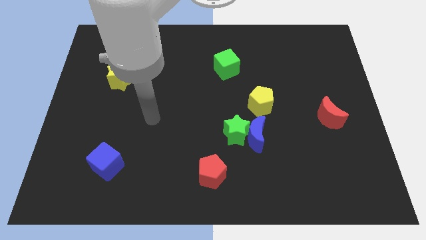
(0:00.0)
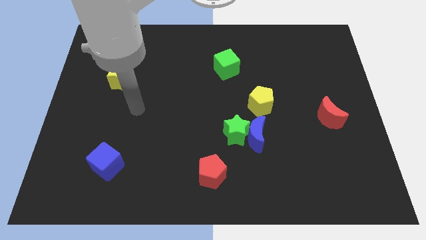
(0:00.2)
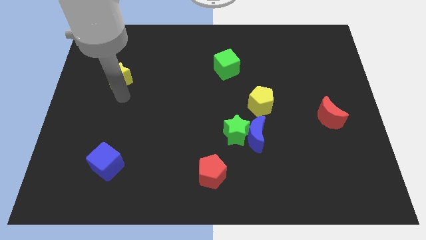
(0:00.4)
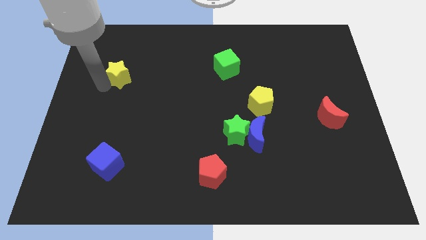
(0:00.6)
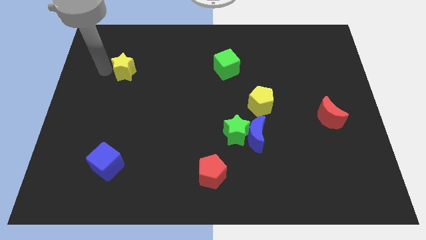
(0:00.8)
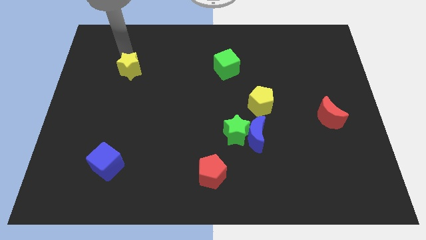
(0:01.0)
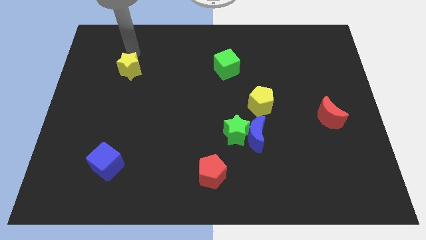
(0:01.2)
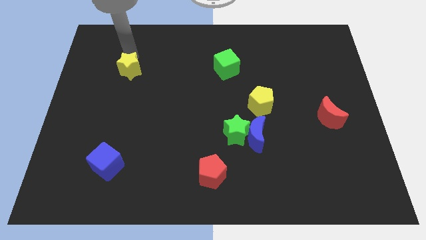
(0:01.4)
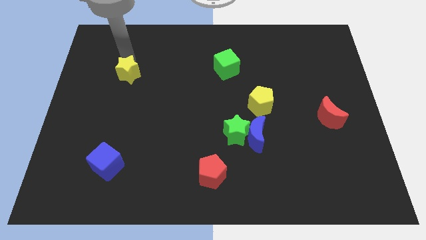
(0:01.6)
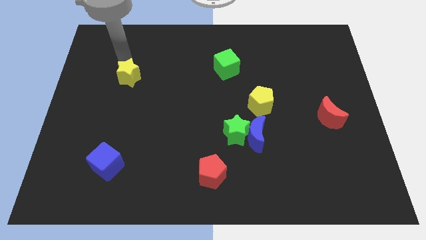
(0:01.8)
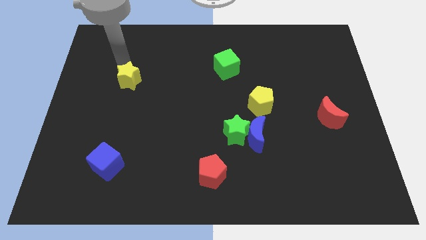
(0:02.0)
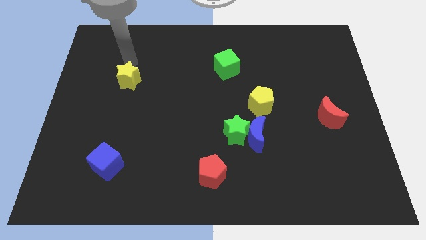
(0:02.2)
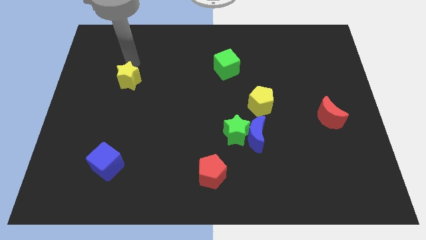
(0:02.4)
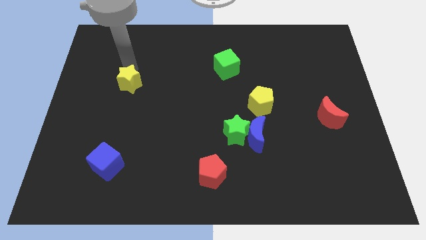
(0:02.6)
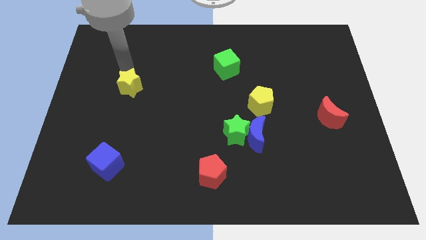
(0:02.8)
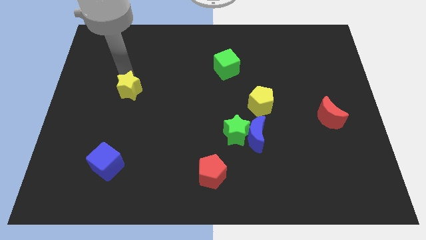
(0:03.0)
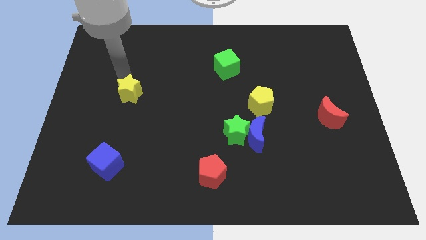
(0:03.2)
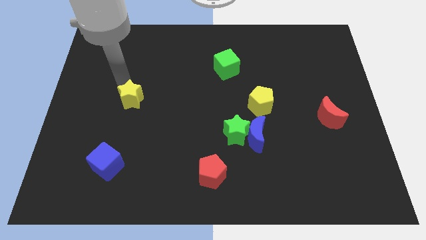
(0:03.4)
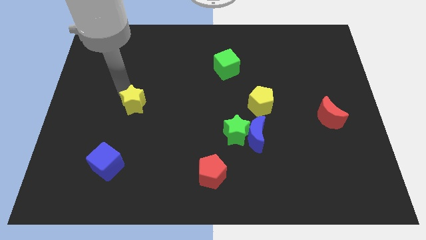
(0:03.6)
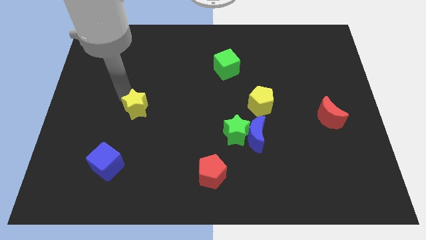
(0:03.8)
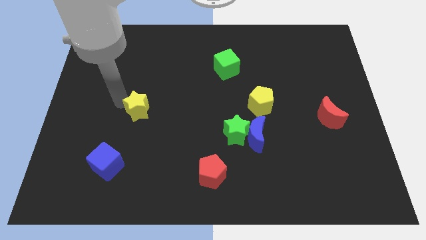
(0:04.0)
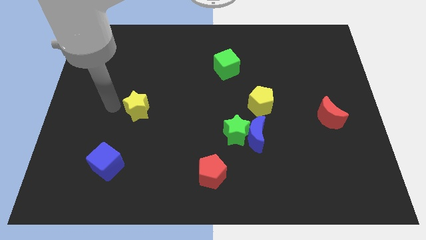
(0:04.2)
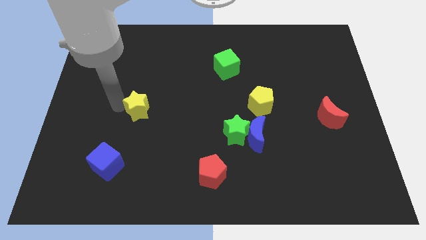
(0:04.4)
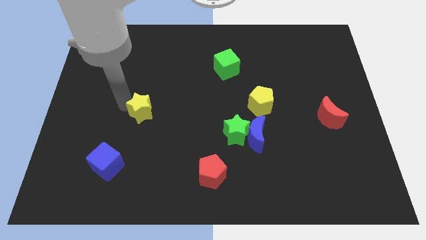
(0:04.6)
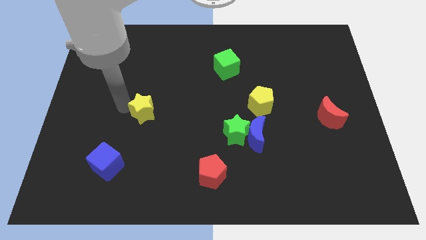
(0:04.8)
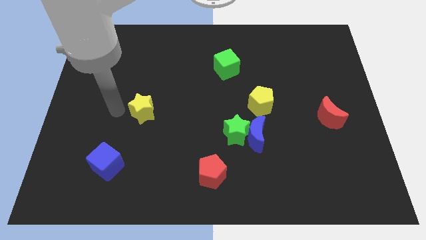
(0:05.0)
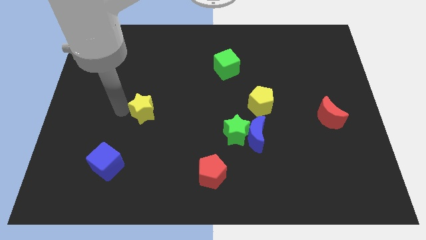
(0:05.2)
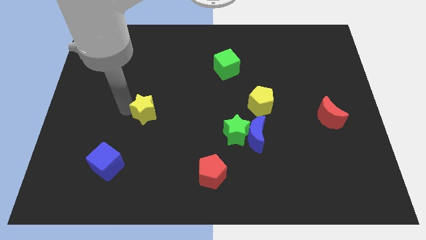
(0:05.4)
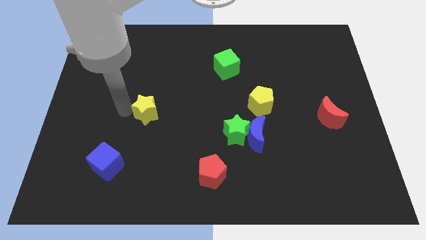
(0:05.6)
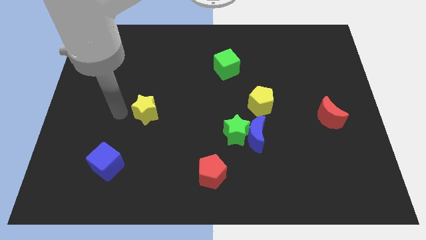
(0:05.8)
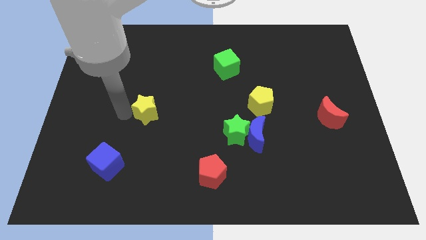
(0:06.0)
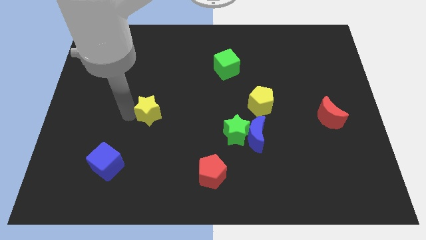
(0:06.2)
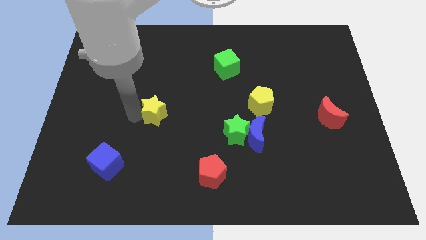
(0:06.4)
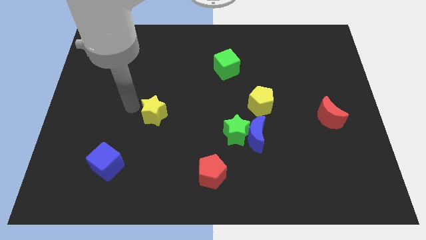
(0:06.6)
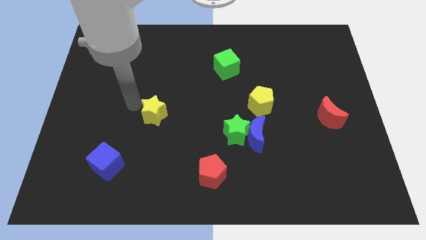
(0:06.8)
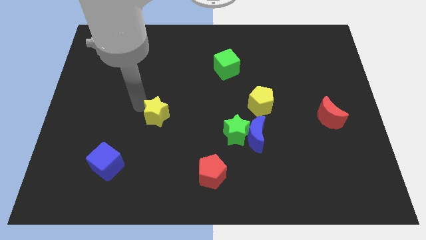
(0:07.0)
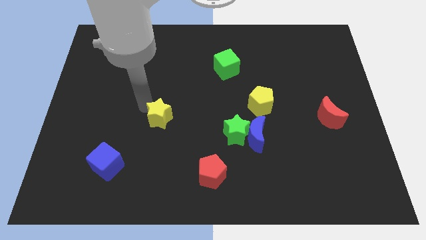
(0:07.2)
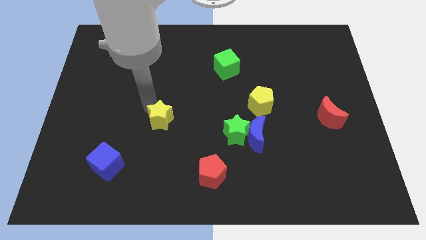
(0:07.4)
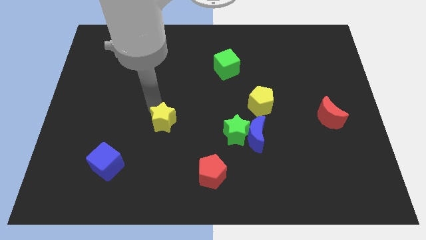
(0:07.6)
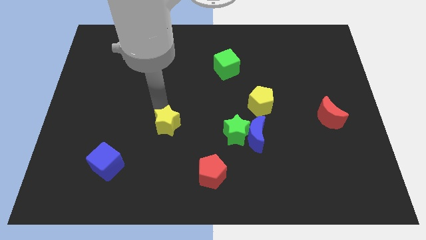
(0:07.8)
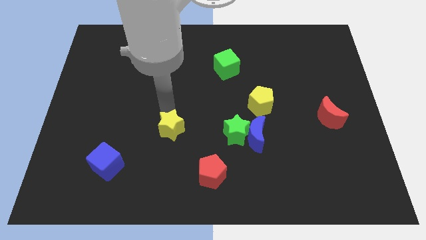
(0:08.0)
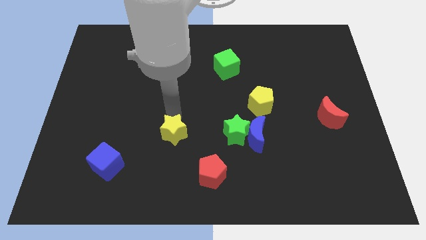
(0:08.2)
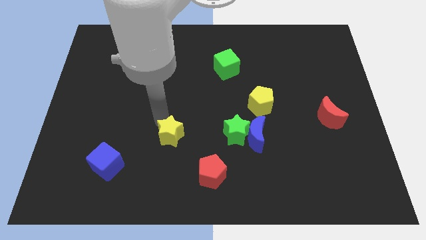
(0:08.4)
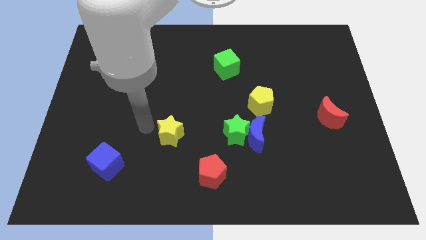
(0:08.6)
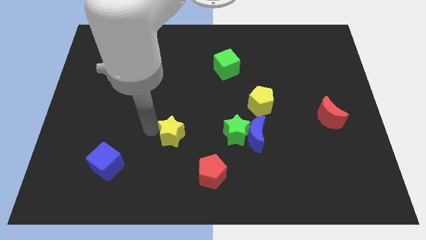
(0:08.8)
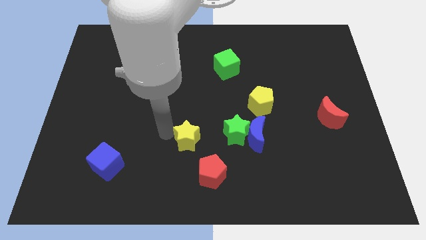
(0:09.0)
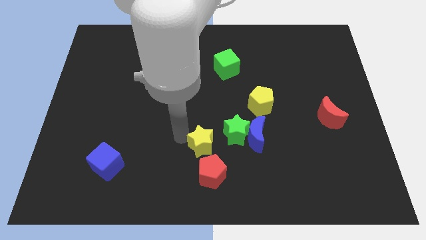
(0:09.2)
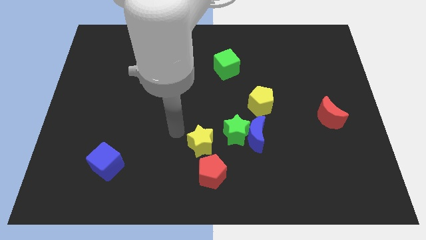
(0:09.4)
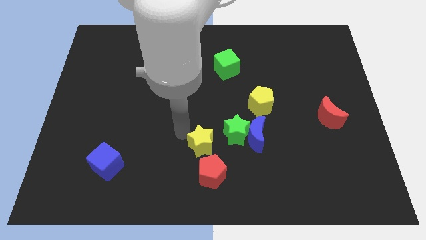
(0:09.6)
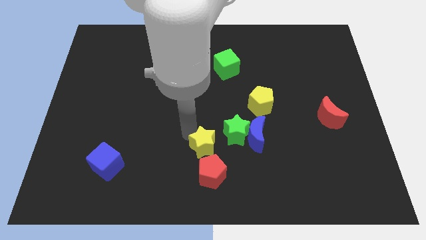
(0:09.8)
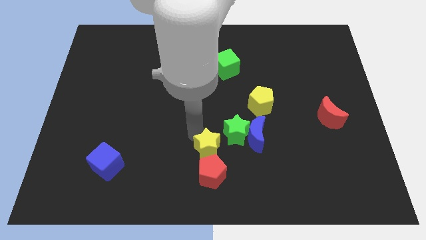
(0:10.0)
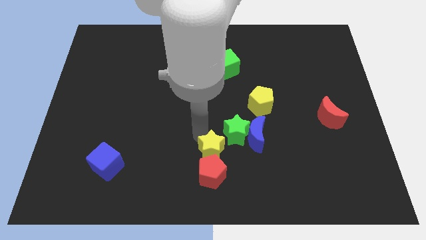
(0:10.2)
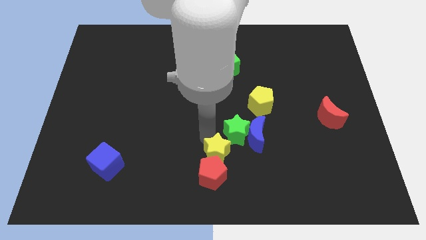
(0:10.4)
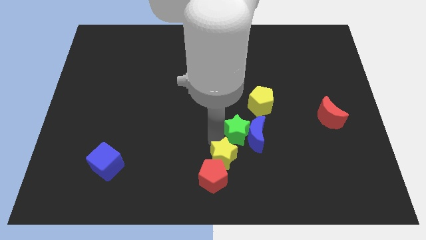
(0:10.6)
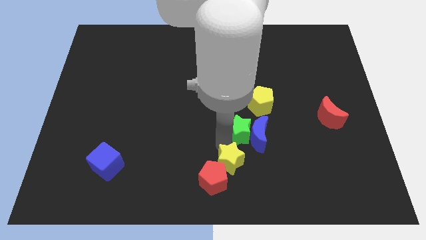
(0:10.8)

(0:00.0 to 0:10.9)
put the yellow star right of the red pentagon
